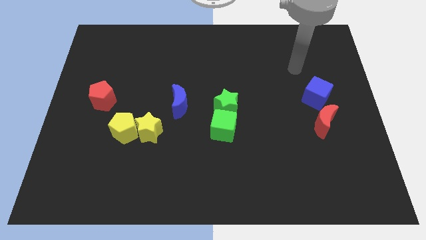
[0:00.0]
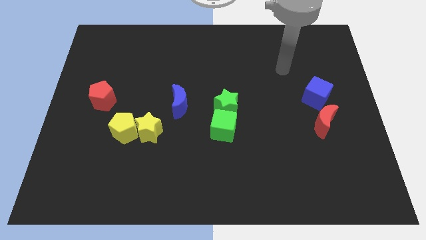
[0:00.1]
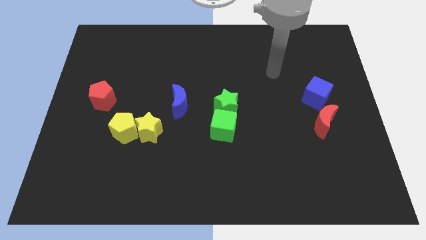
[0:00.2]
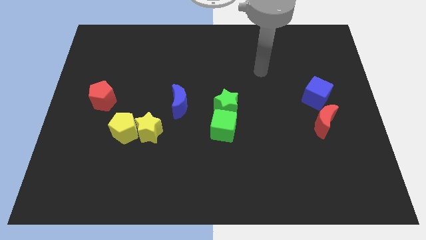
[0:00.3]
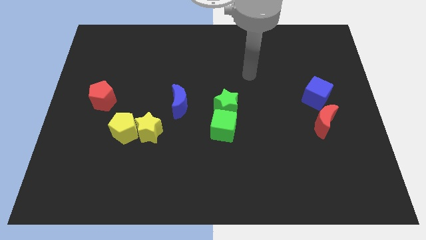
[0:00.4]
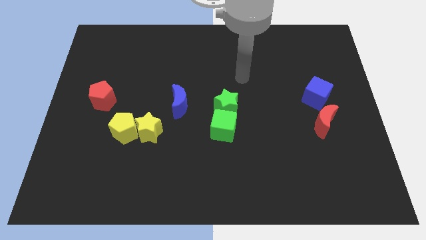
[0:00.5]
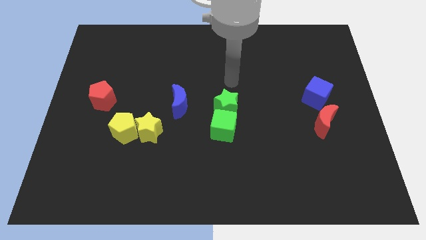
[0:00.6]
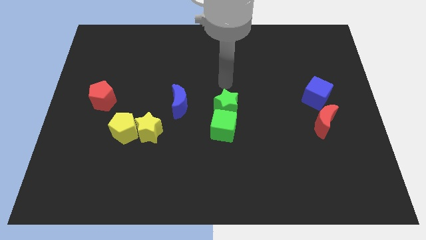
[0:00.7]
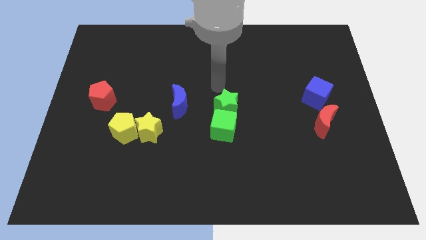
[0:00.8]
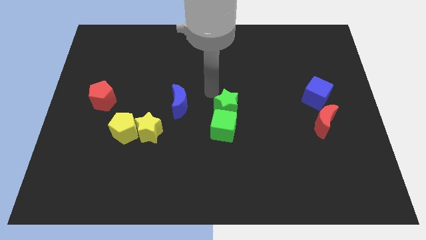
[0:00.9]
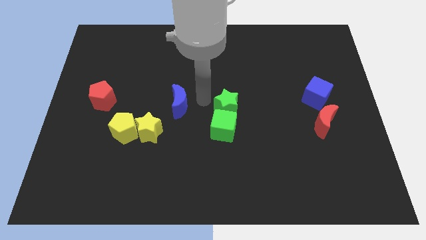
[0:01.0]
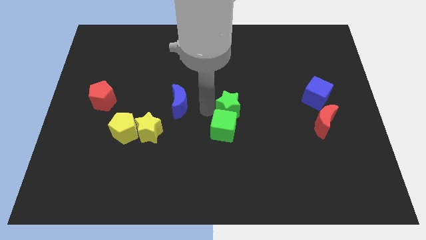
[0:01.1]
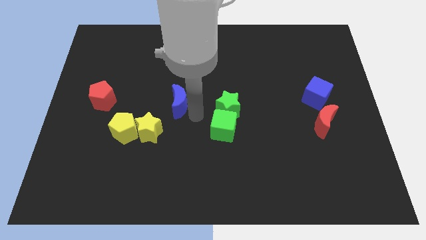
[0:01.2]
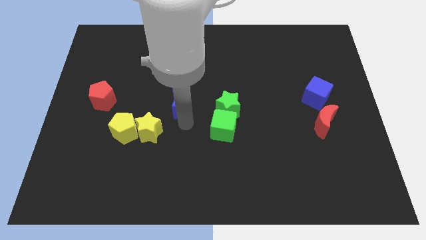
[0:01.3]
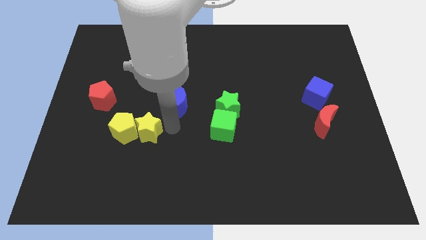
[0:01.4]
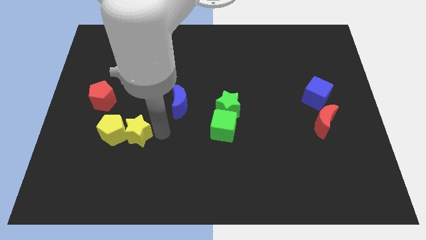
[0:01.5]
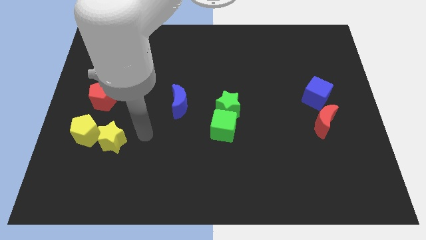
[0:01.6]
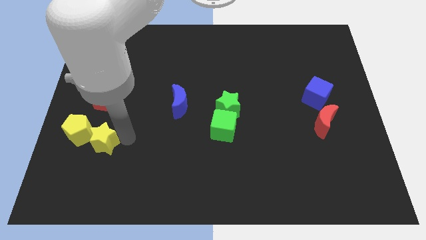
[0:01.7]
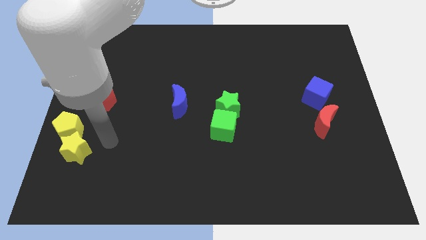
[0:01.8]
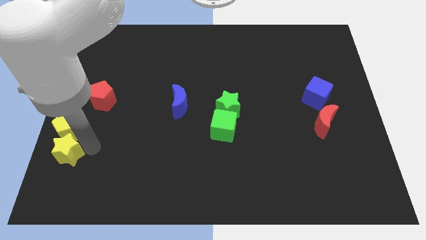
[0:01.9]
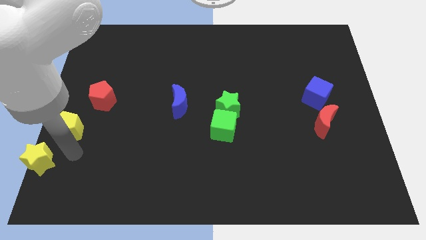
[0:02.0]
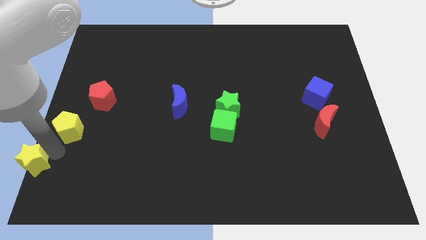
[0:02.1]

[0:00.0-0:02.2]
pull the yellow pentagon apart from the yellow star

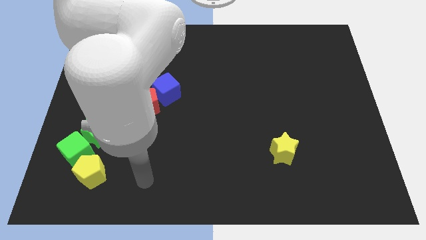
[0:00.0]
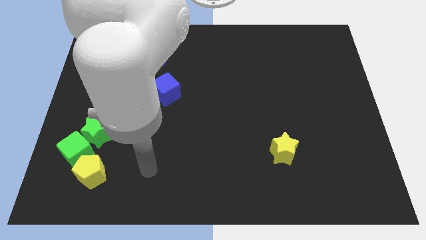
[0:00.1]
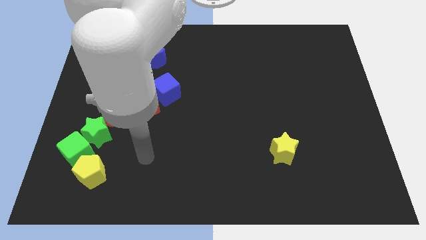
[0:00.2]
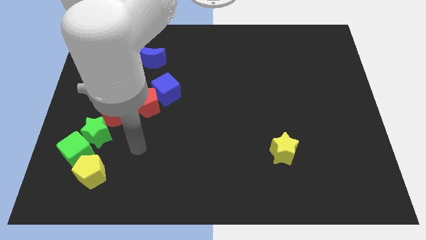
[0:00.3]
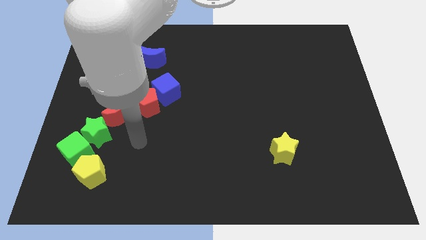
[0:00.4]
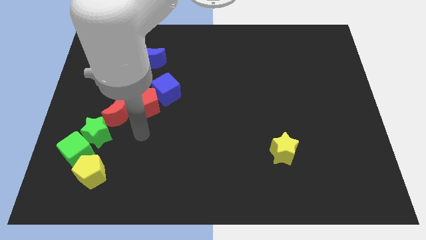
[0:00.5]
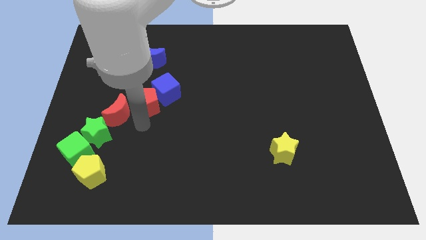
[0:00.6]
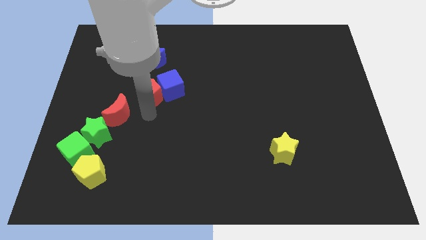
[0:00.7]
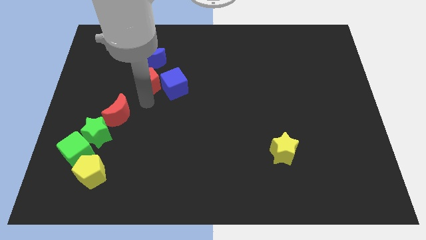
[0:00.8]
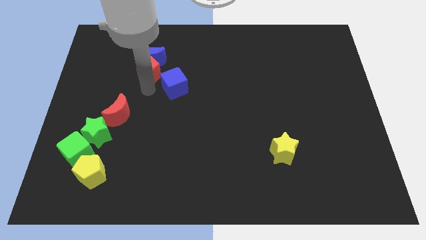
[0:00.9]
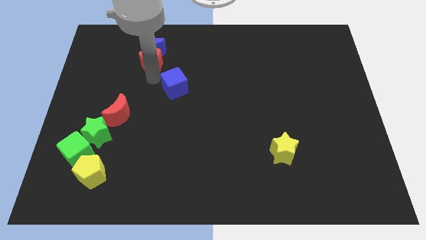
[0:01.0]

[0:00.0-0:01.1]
move the blue cube away from the red pentagon

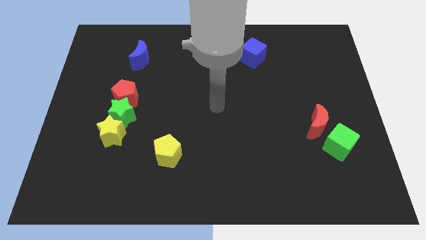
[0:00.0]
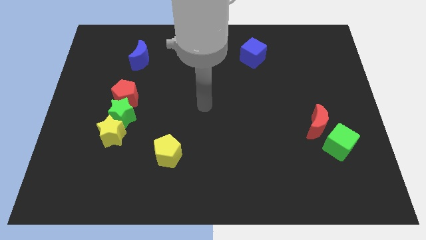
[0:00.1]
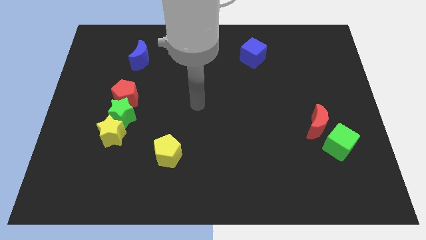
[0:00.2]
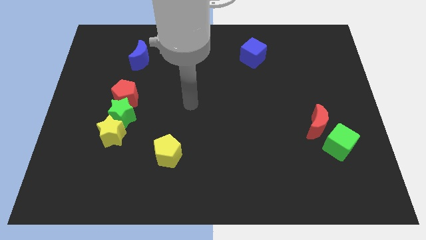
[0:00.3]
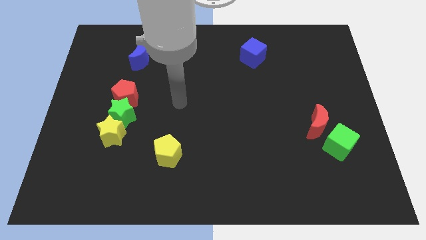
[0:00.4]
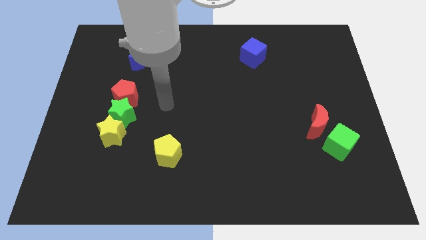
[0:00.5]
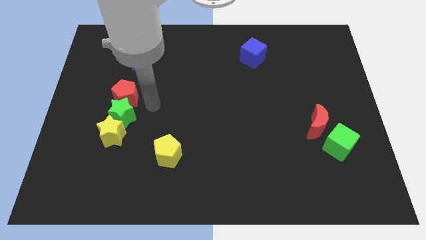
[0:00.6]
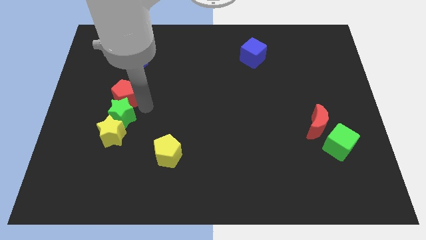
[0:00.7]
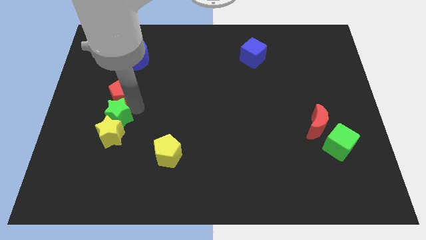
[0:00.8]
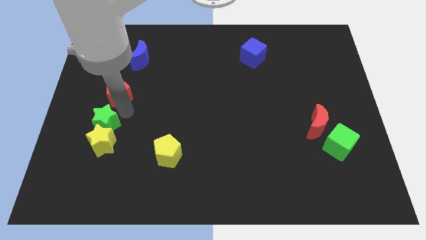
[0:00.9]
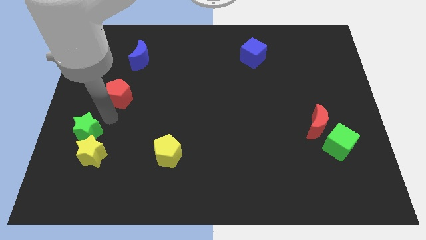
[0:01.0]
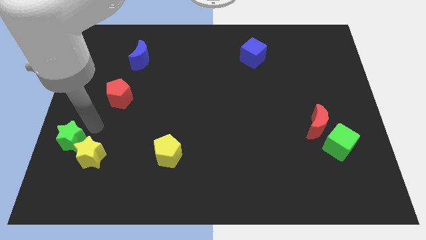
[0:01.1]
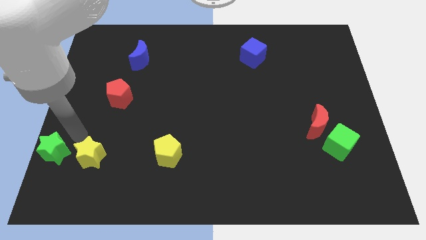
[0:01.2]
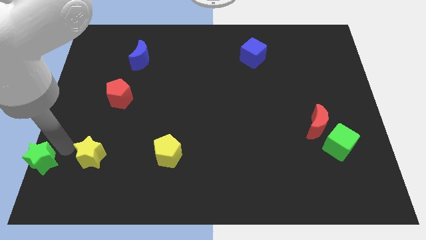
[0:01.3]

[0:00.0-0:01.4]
separate the yellow star from the green star

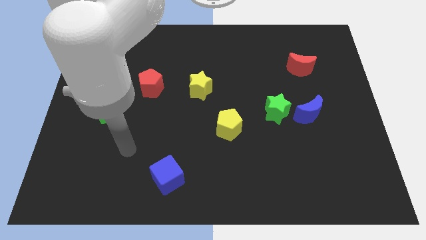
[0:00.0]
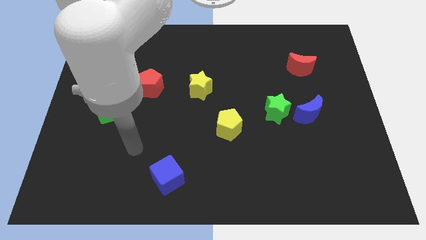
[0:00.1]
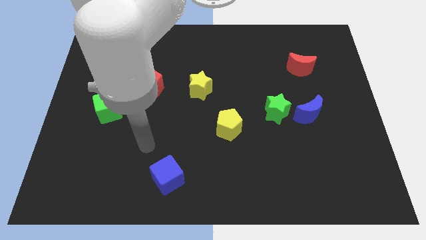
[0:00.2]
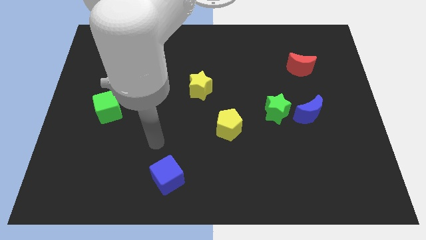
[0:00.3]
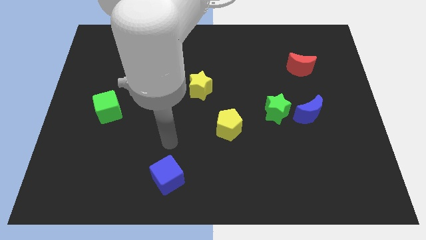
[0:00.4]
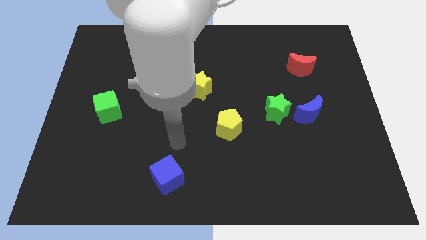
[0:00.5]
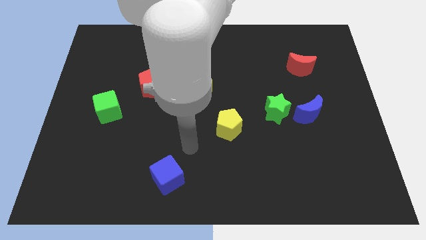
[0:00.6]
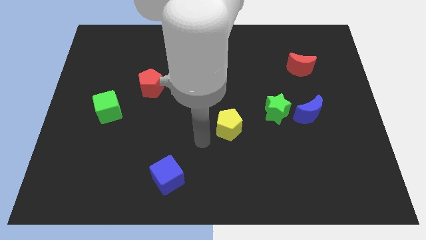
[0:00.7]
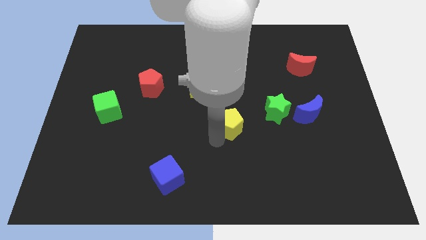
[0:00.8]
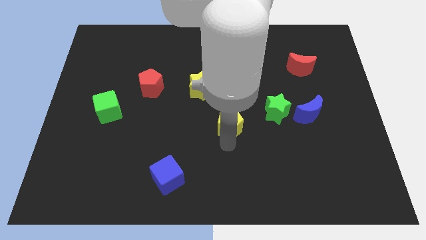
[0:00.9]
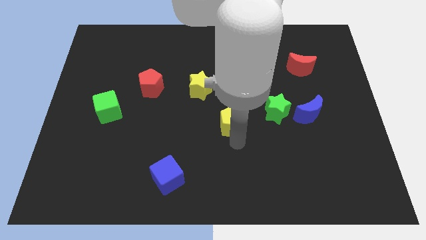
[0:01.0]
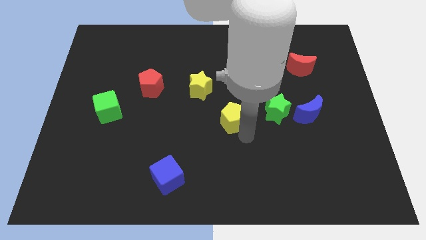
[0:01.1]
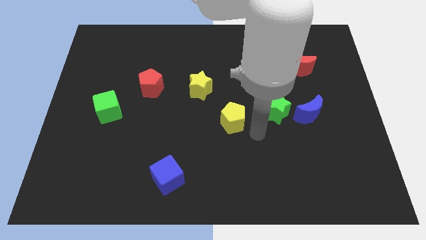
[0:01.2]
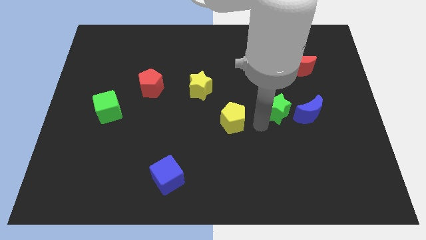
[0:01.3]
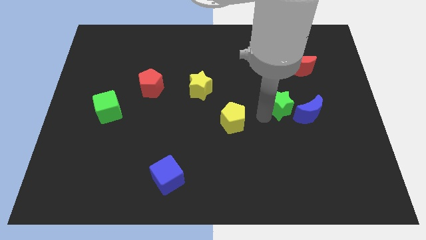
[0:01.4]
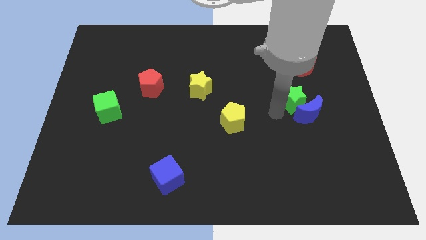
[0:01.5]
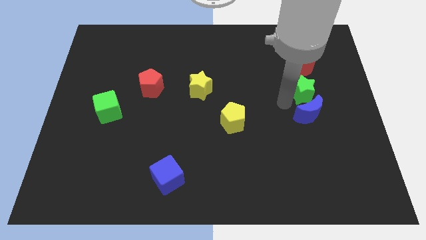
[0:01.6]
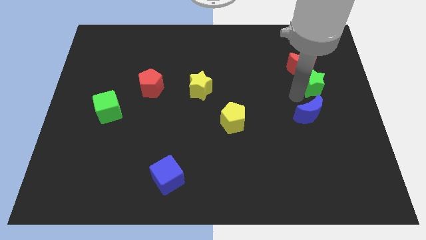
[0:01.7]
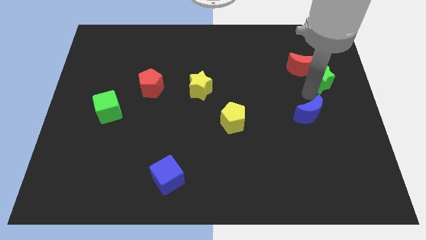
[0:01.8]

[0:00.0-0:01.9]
pull the blue moon apart from the green star

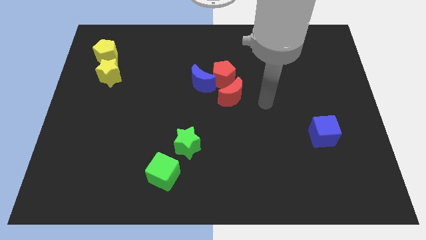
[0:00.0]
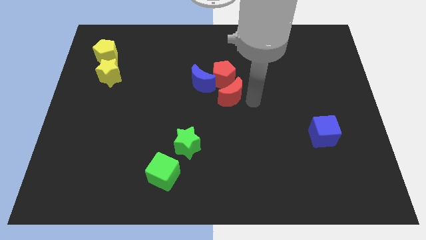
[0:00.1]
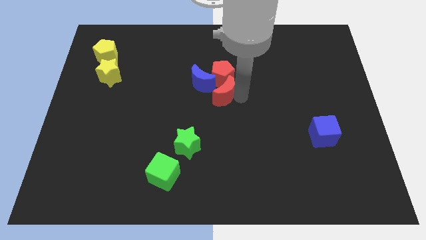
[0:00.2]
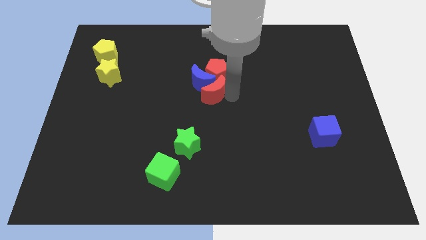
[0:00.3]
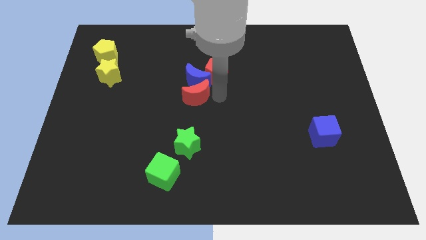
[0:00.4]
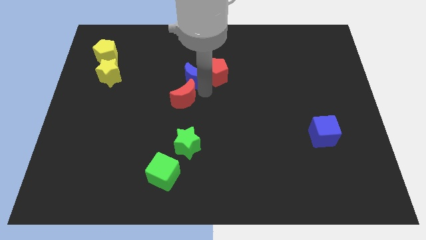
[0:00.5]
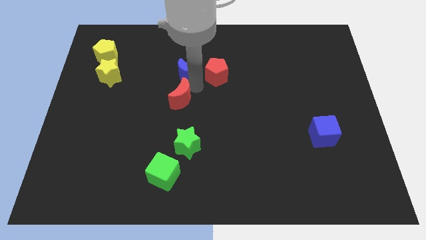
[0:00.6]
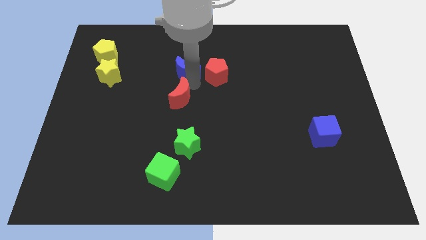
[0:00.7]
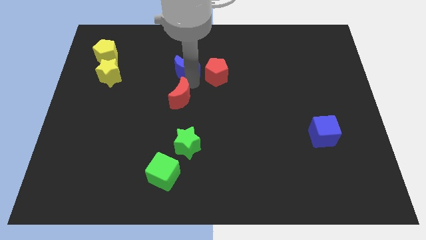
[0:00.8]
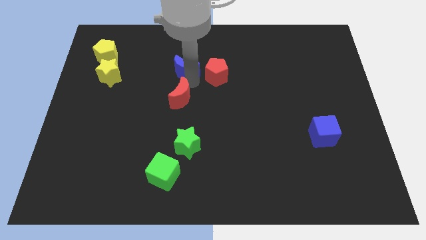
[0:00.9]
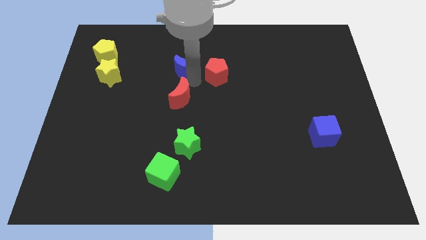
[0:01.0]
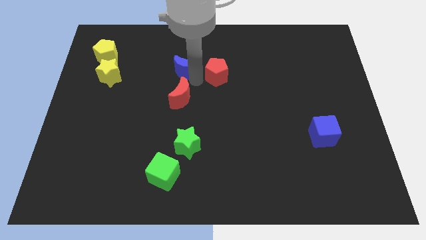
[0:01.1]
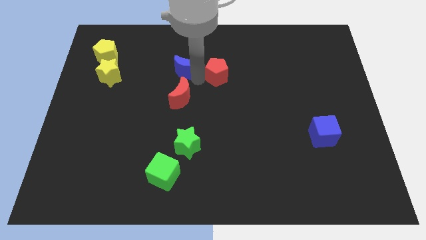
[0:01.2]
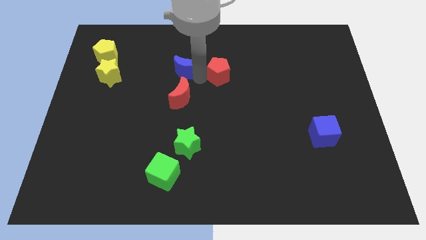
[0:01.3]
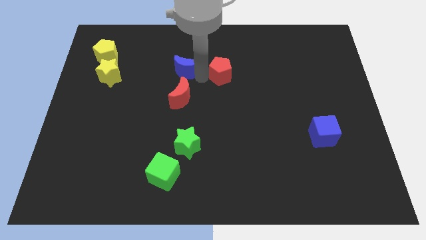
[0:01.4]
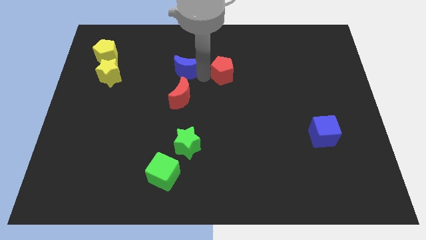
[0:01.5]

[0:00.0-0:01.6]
pull the red pentagon apart from the blue moon and red moon

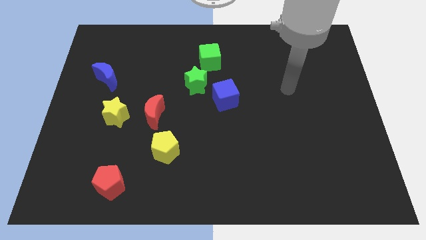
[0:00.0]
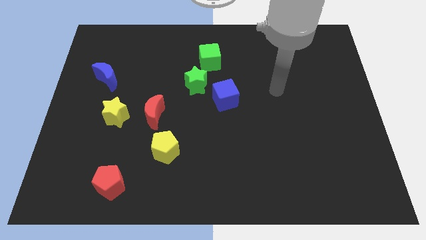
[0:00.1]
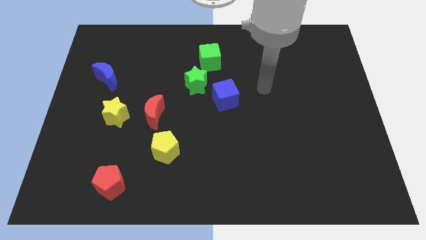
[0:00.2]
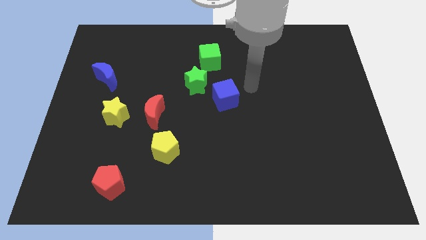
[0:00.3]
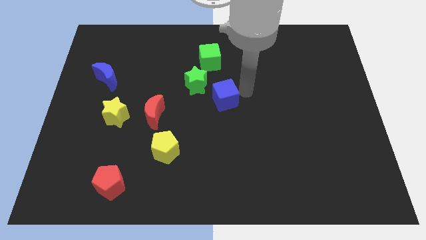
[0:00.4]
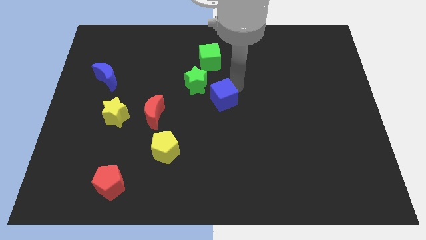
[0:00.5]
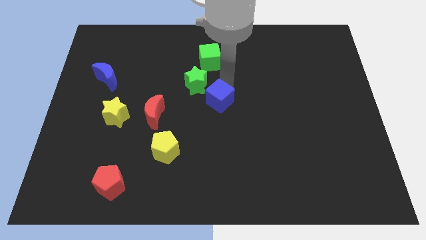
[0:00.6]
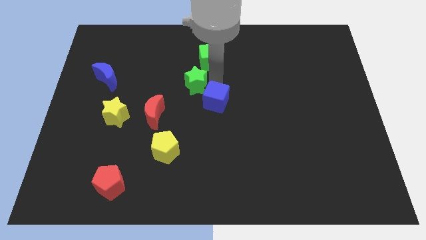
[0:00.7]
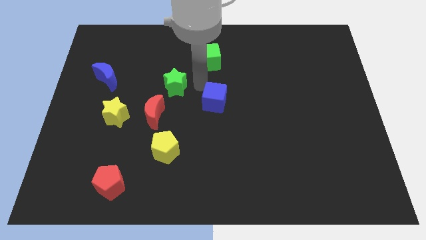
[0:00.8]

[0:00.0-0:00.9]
separate the blue cube from the green star
